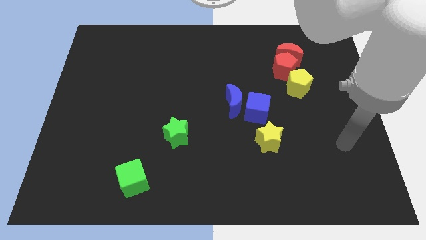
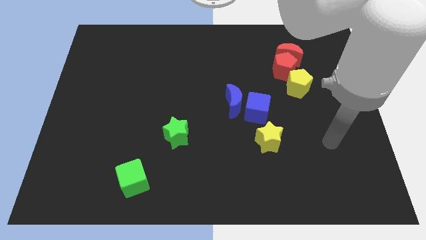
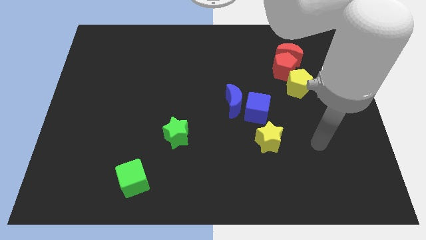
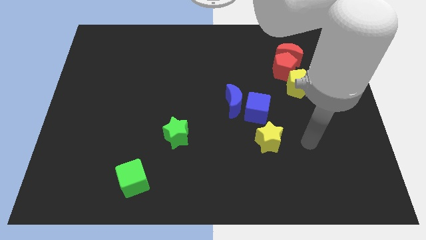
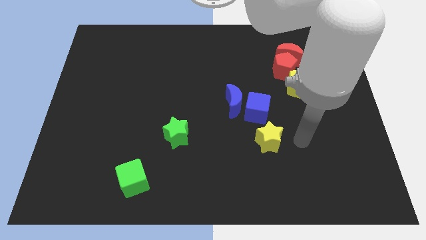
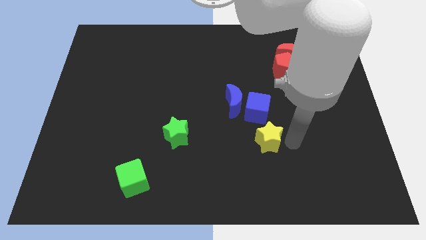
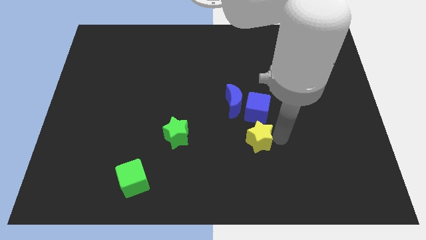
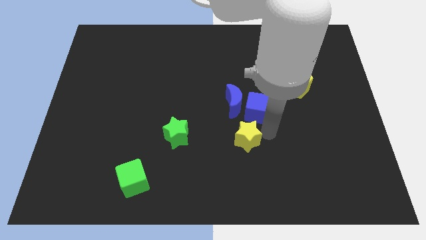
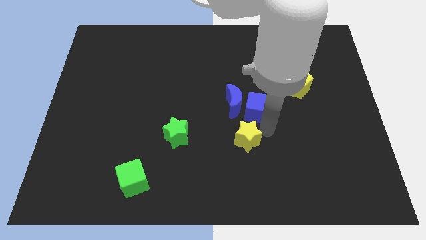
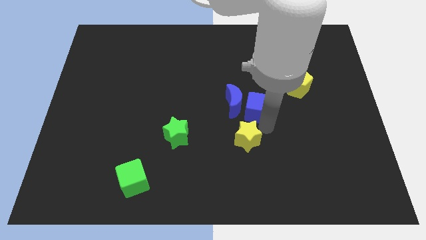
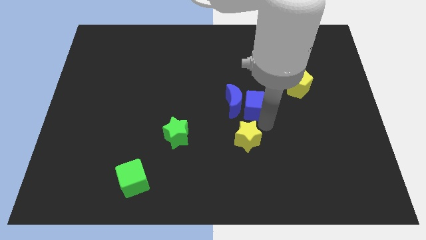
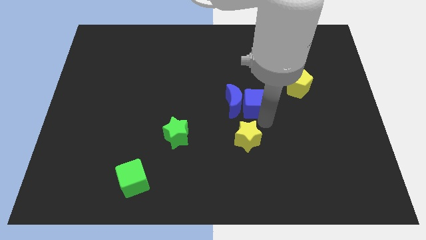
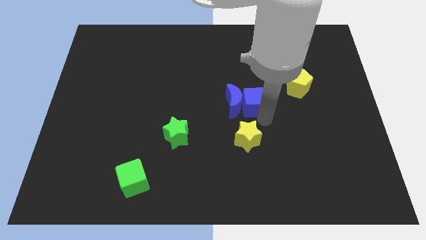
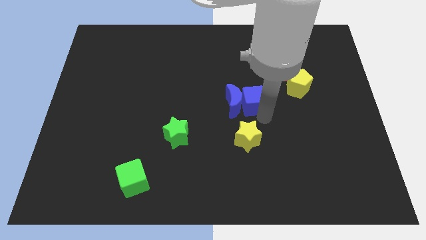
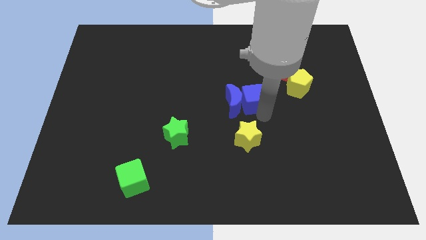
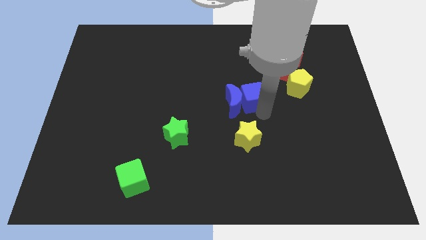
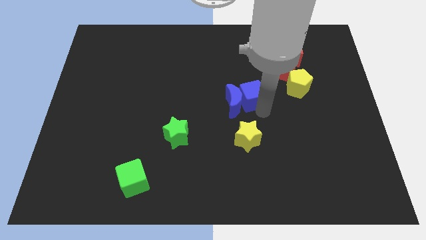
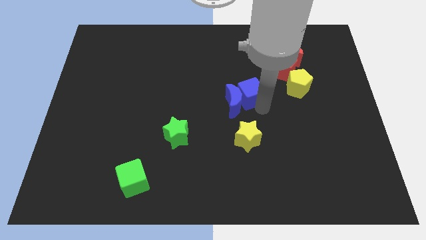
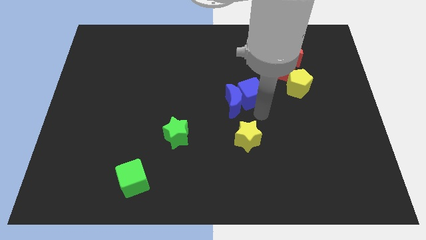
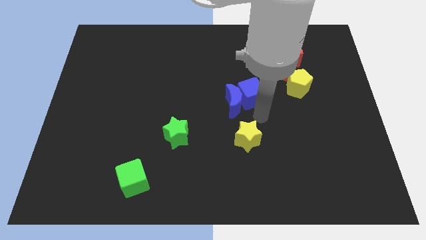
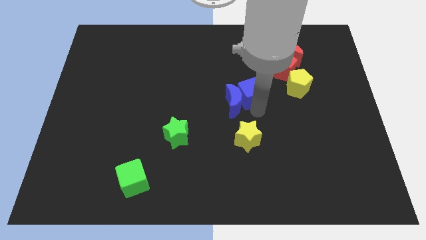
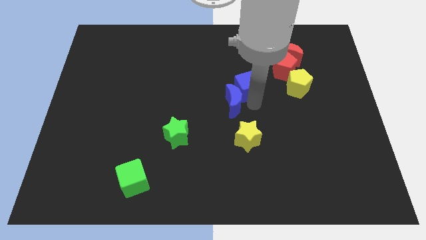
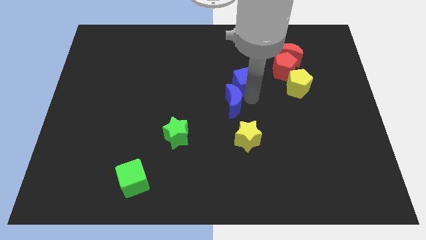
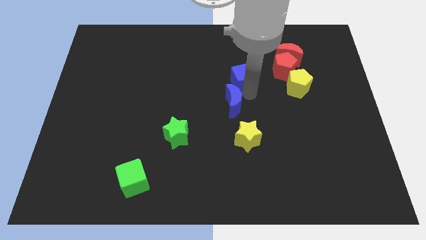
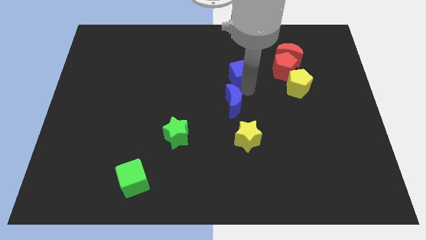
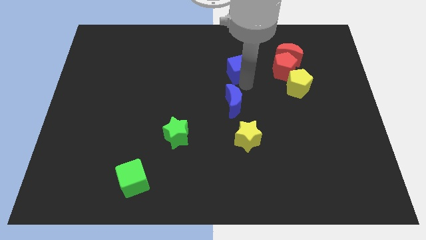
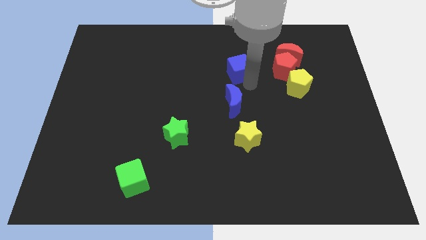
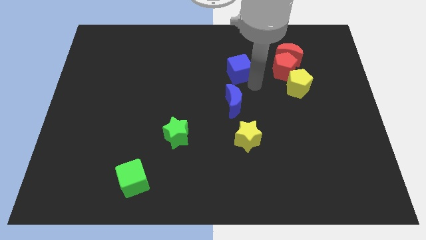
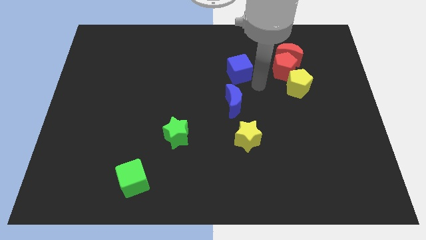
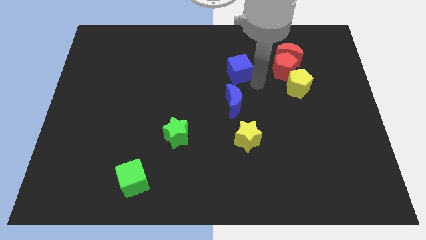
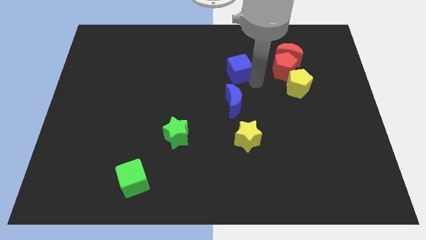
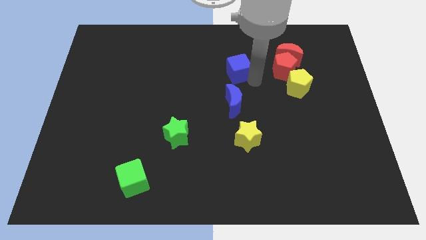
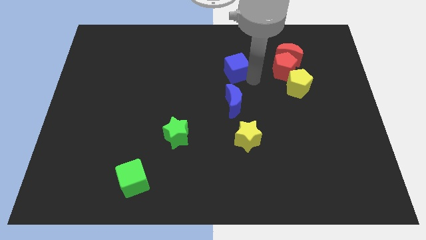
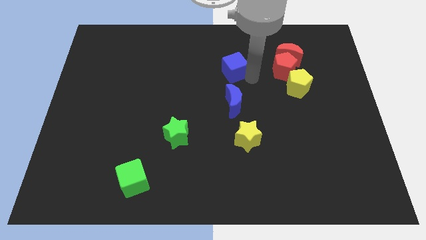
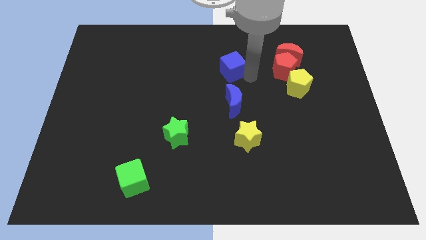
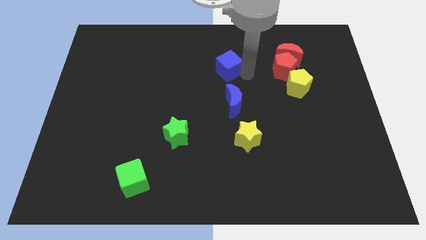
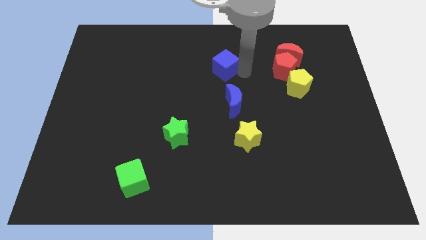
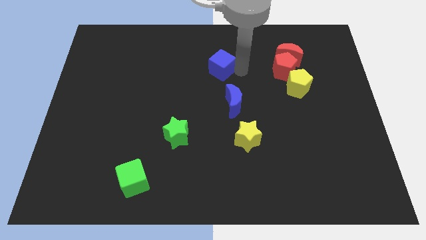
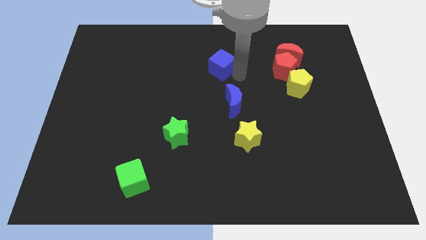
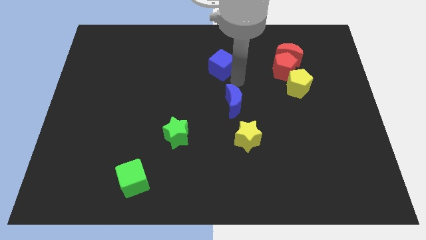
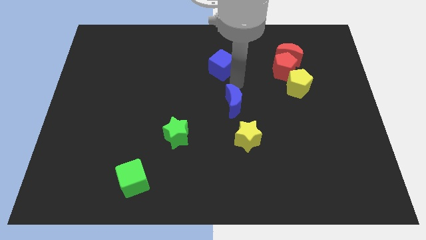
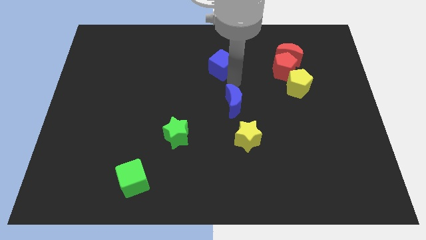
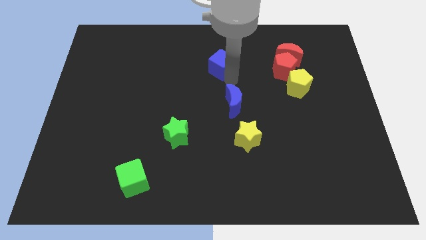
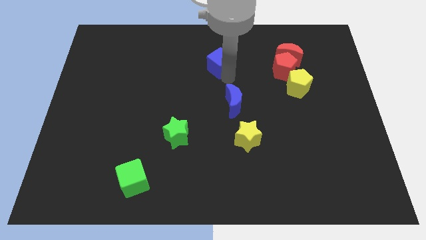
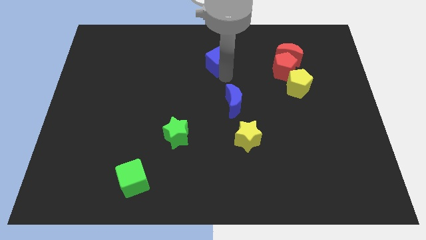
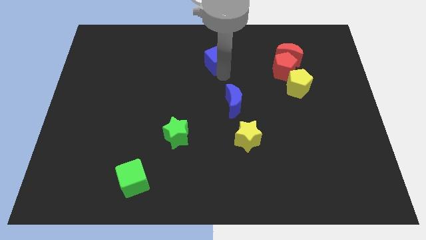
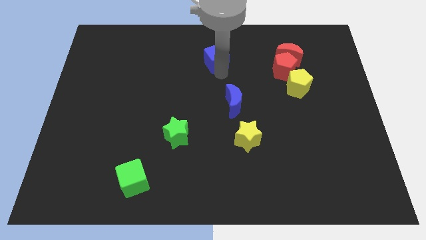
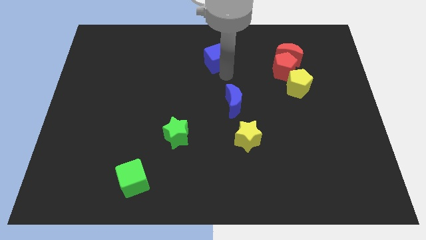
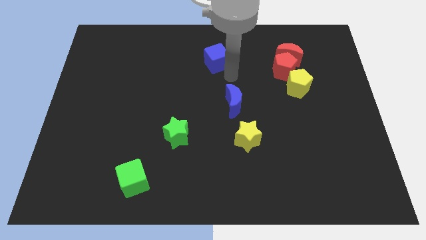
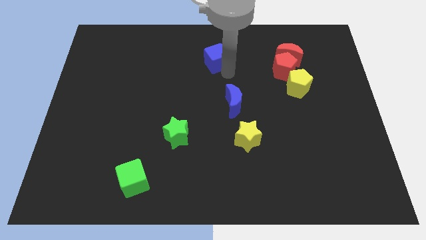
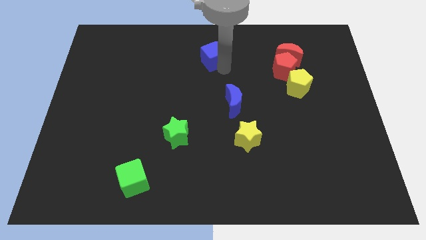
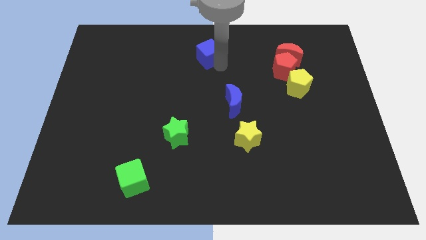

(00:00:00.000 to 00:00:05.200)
push the blue cube to the top side

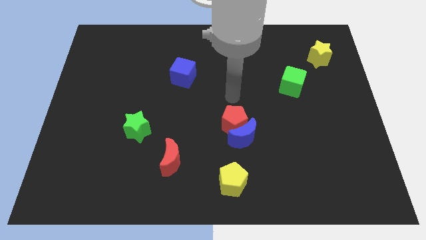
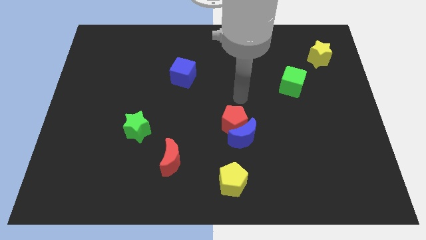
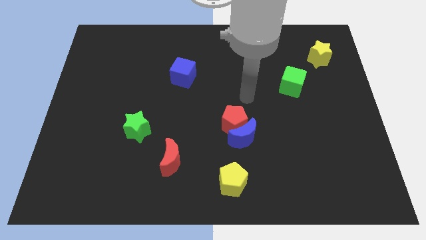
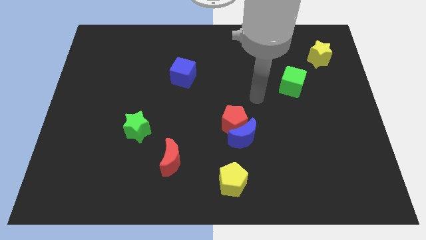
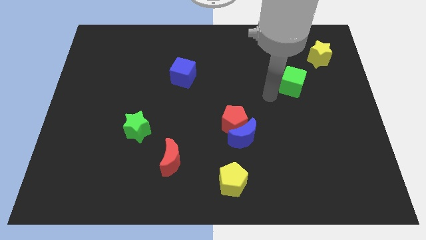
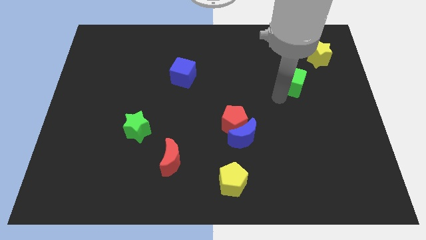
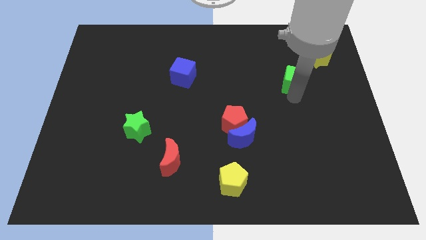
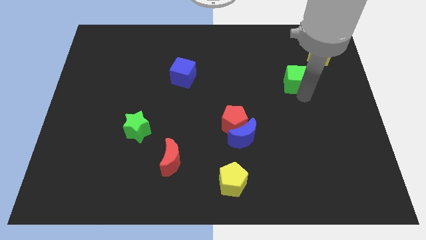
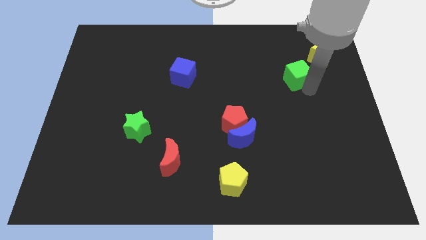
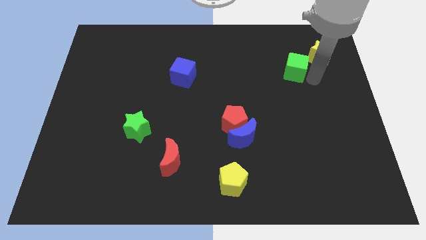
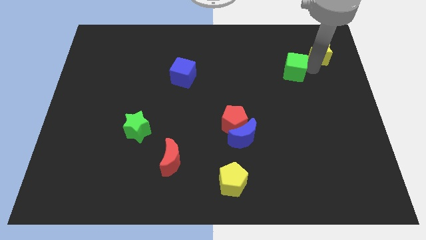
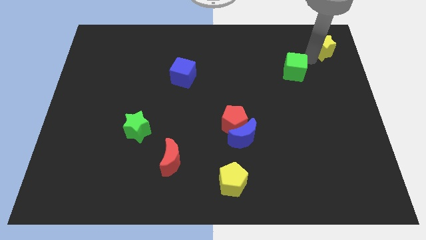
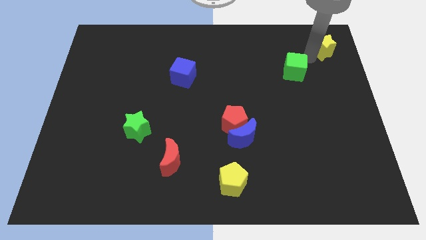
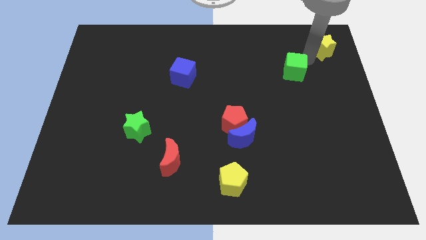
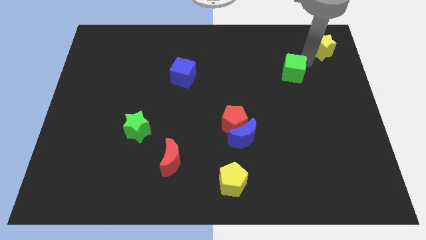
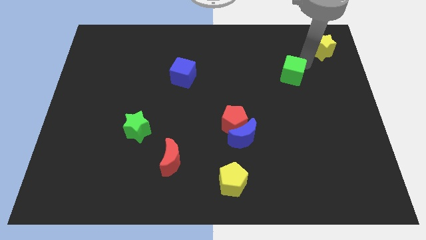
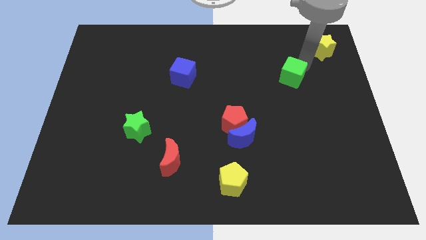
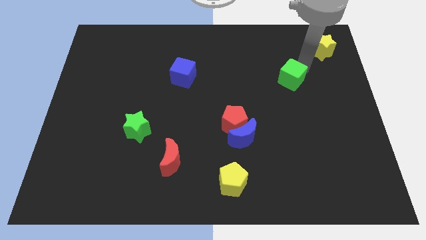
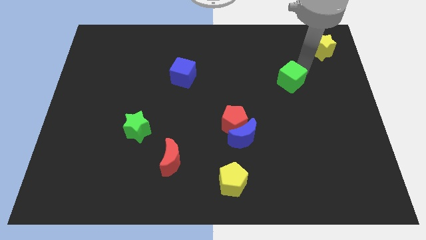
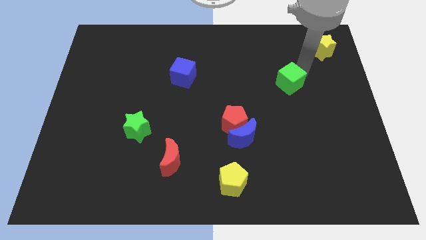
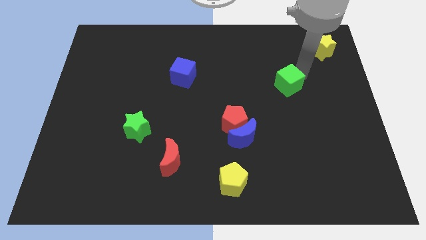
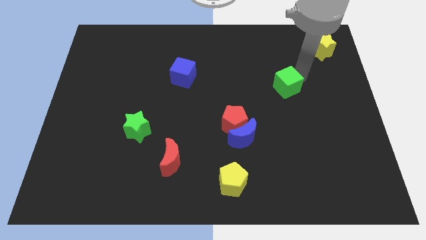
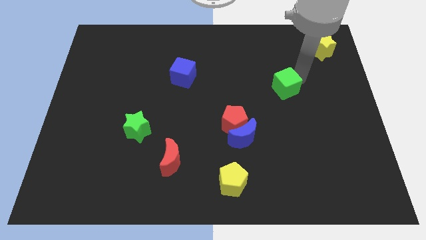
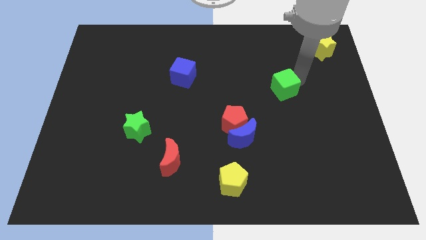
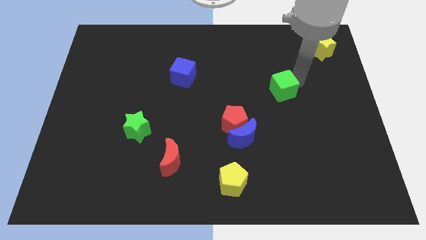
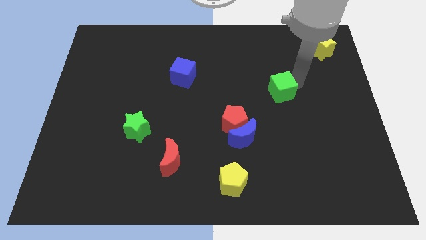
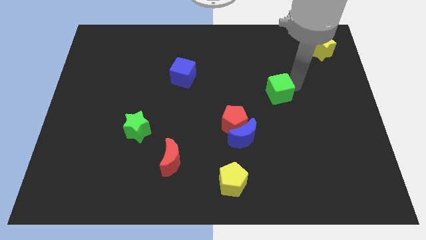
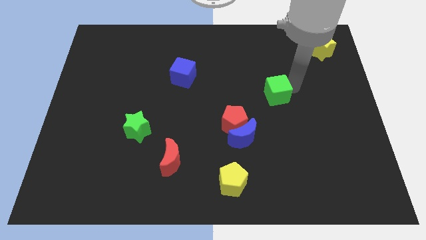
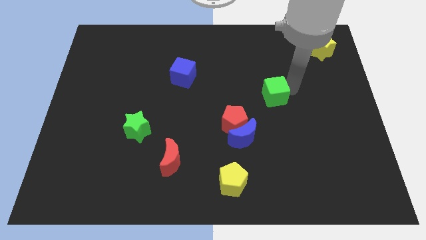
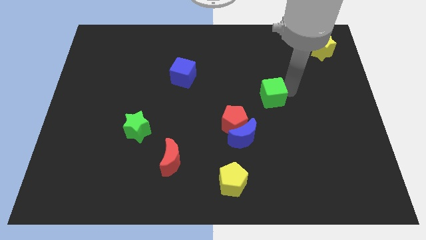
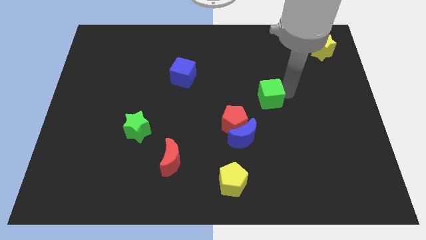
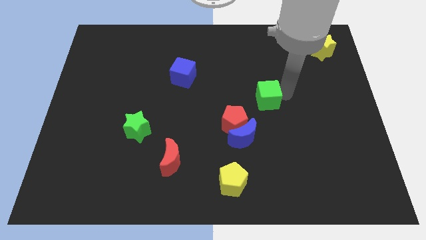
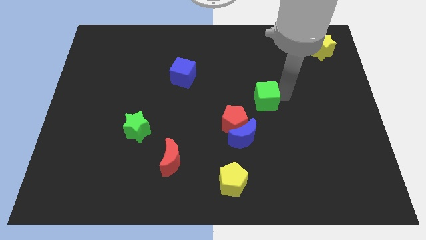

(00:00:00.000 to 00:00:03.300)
push the green cube to the center
